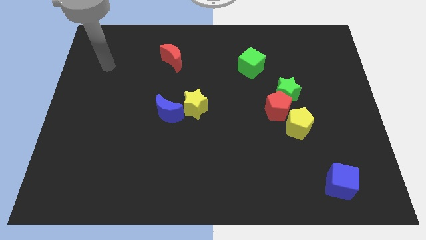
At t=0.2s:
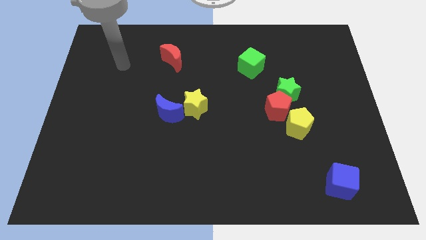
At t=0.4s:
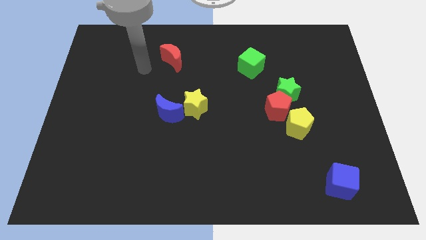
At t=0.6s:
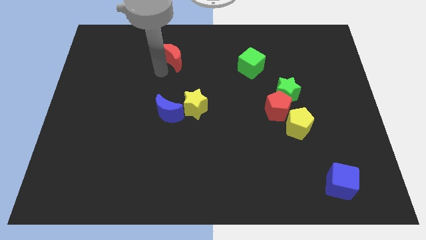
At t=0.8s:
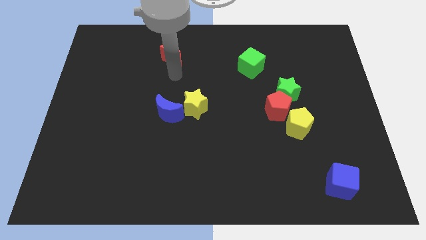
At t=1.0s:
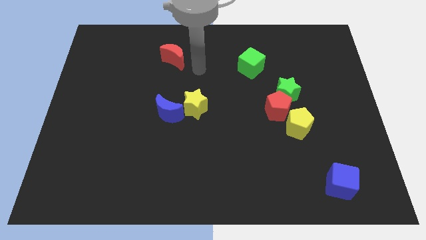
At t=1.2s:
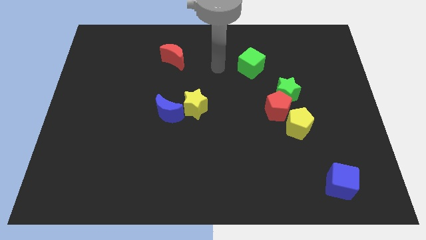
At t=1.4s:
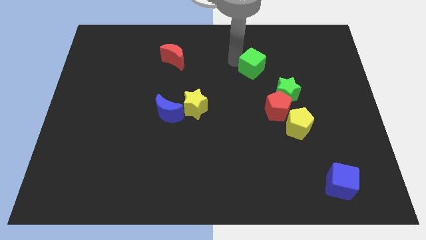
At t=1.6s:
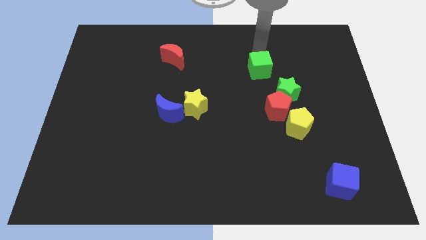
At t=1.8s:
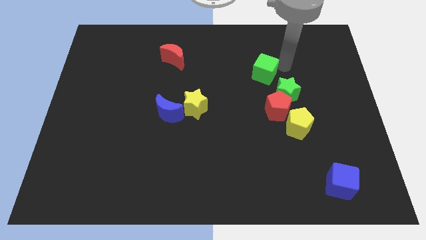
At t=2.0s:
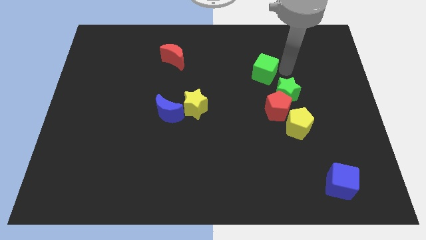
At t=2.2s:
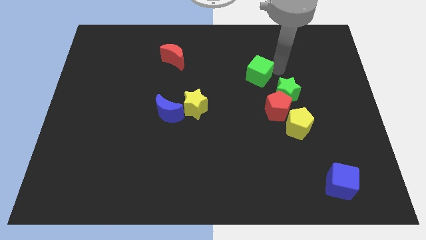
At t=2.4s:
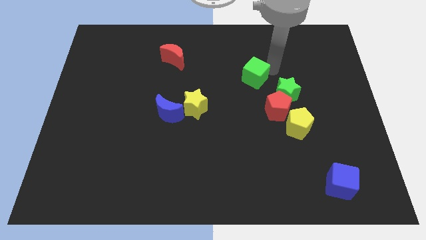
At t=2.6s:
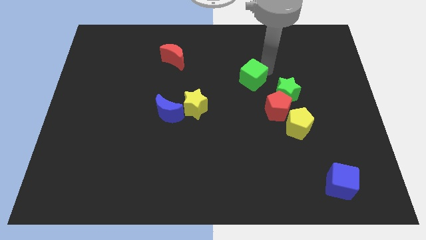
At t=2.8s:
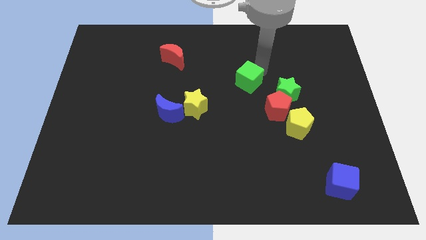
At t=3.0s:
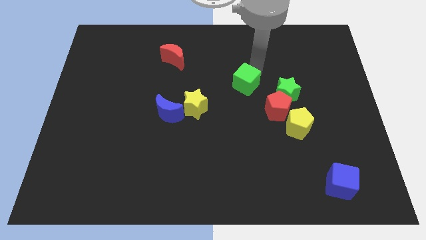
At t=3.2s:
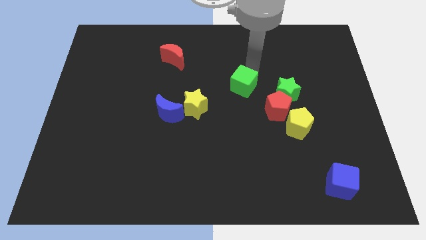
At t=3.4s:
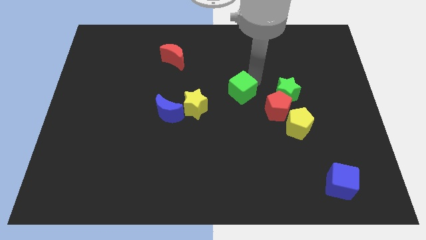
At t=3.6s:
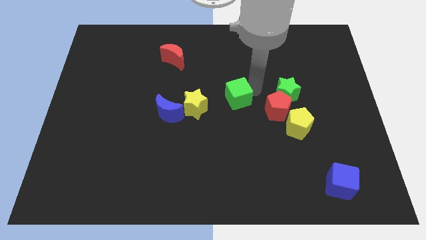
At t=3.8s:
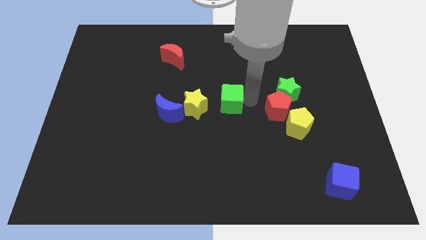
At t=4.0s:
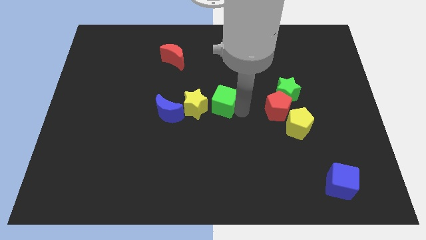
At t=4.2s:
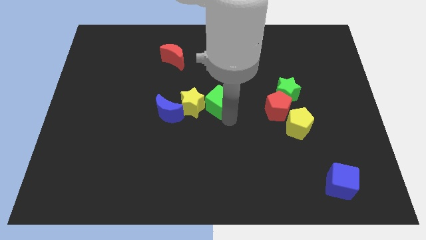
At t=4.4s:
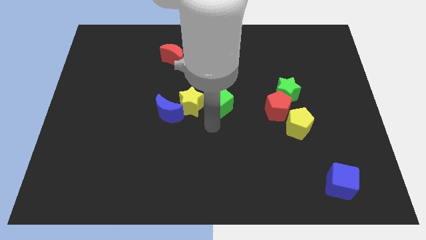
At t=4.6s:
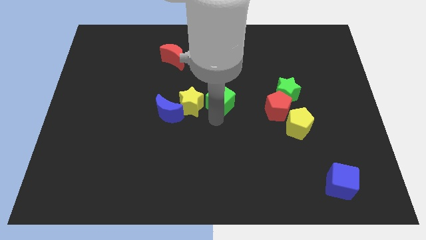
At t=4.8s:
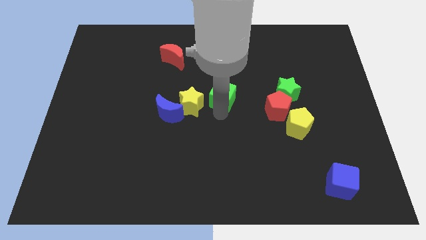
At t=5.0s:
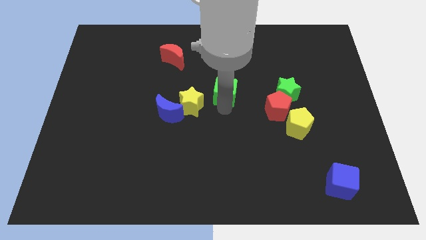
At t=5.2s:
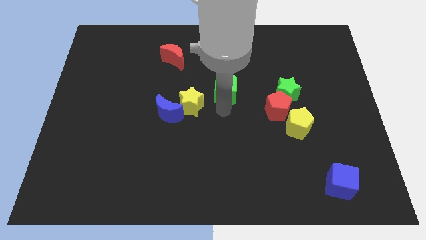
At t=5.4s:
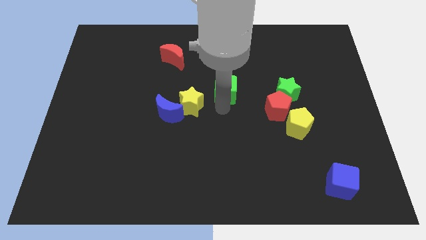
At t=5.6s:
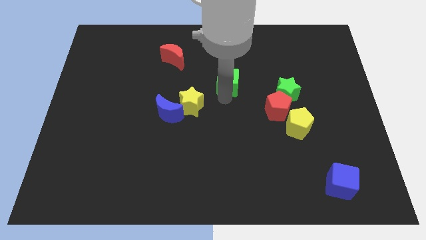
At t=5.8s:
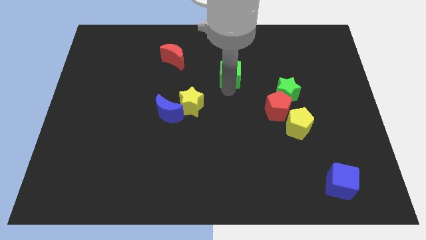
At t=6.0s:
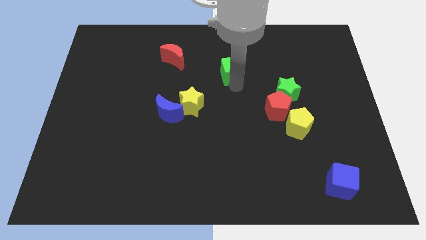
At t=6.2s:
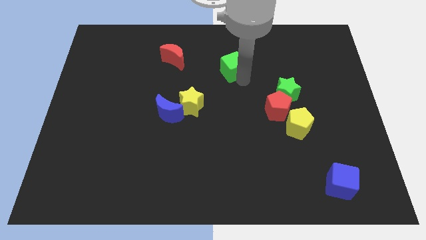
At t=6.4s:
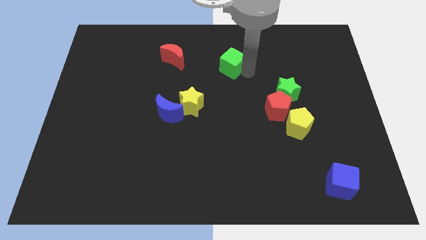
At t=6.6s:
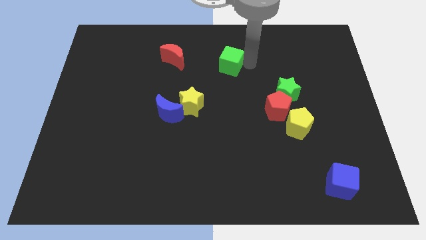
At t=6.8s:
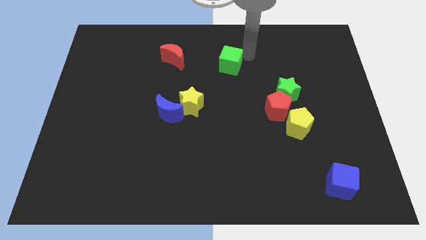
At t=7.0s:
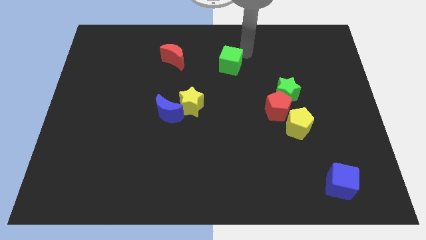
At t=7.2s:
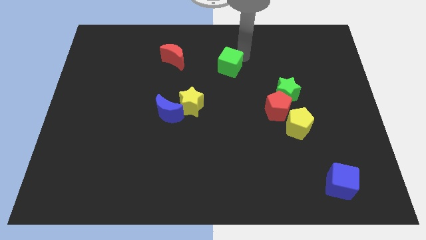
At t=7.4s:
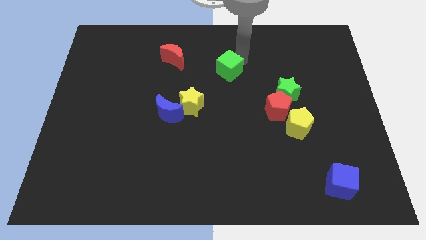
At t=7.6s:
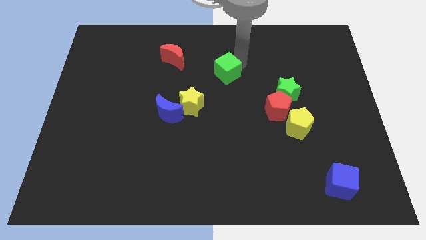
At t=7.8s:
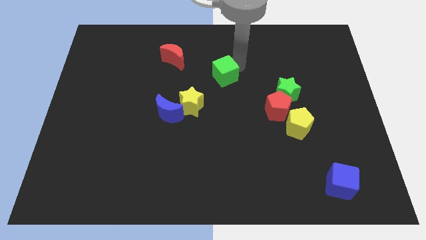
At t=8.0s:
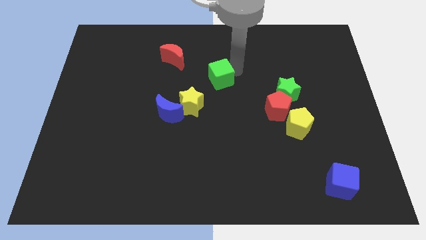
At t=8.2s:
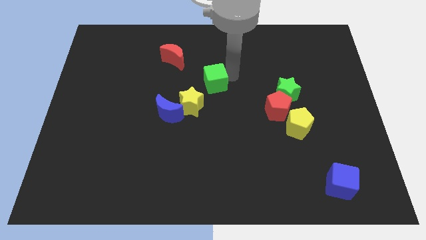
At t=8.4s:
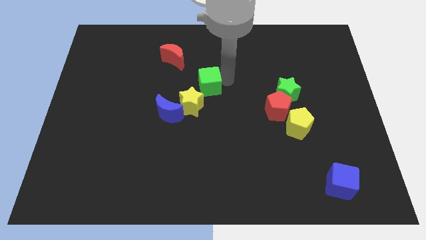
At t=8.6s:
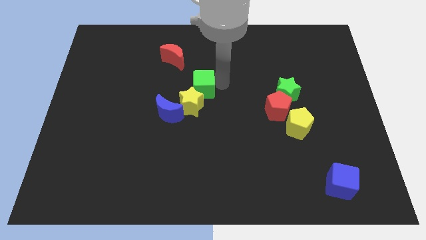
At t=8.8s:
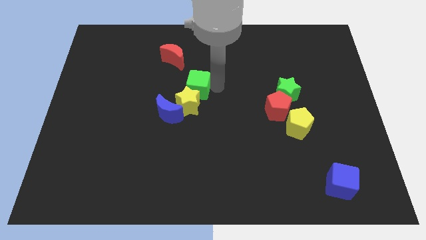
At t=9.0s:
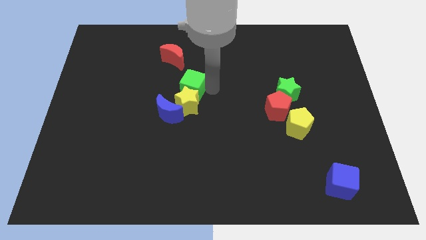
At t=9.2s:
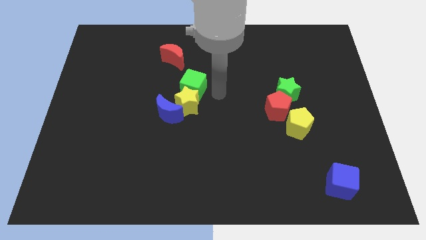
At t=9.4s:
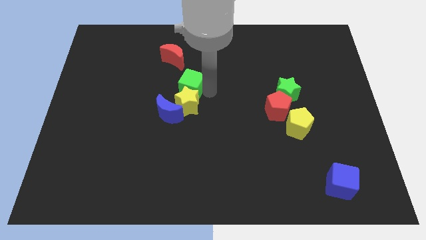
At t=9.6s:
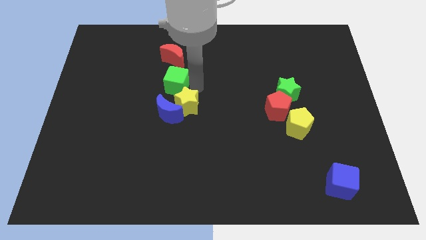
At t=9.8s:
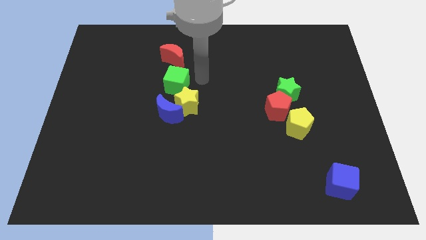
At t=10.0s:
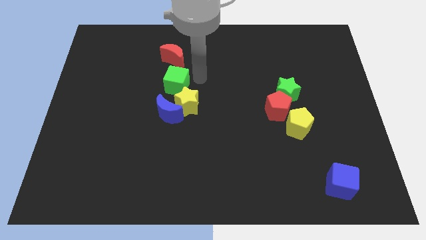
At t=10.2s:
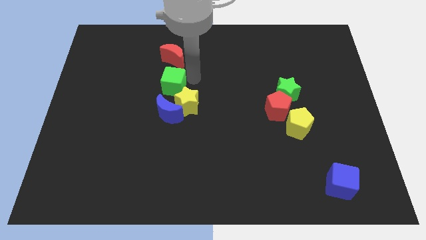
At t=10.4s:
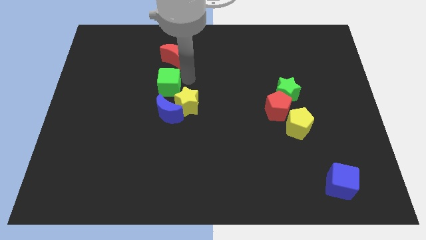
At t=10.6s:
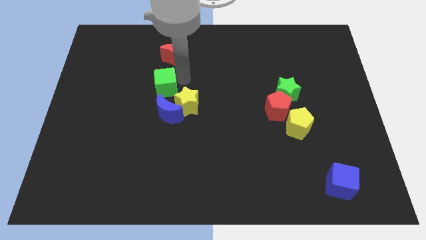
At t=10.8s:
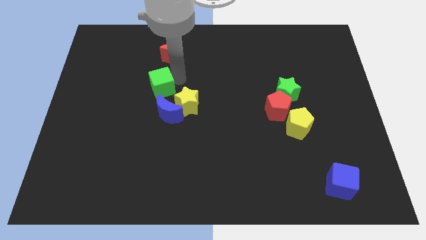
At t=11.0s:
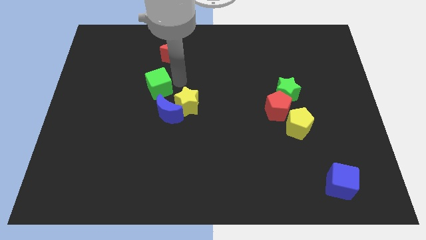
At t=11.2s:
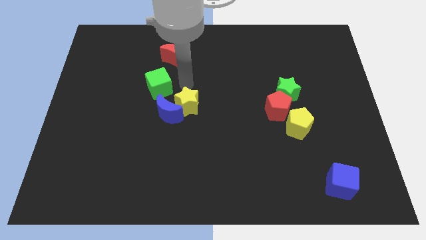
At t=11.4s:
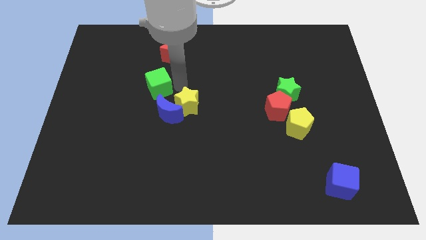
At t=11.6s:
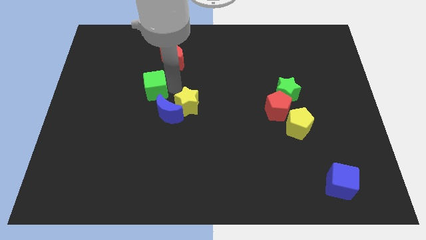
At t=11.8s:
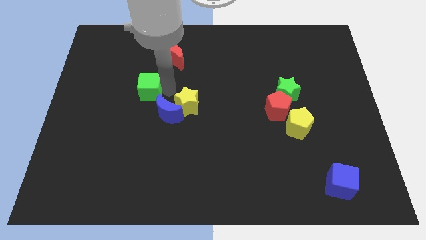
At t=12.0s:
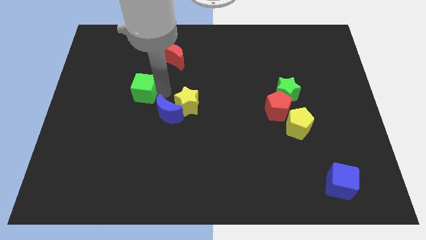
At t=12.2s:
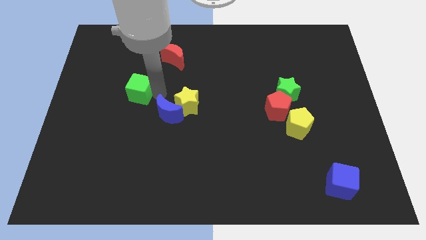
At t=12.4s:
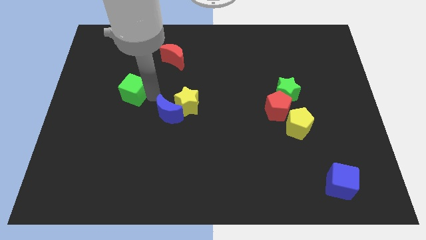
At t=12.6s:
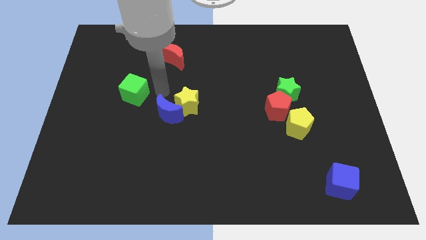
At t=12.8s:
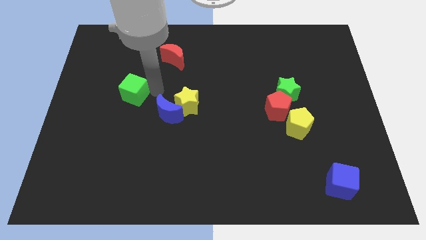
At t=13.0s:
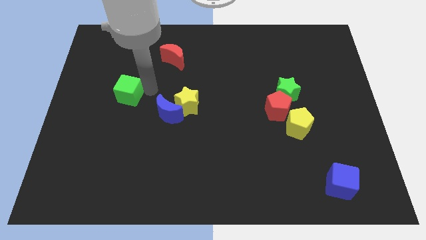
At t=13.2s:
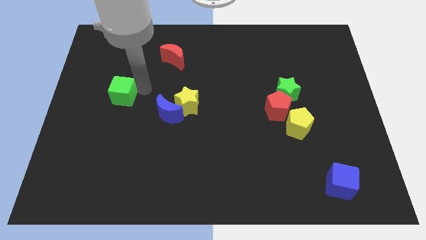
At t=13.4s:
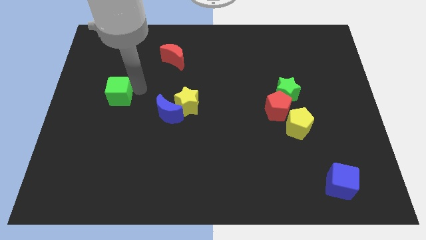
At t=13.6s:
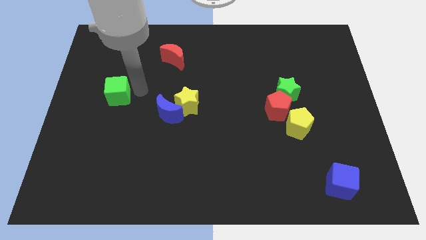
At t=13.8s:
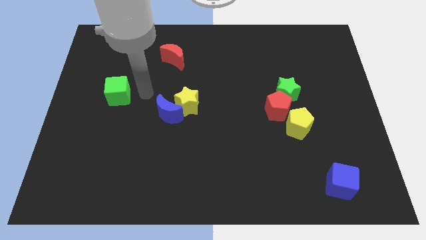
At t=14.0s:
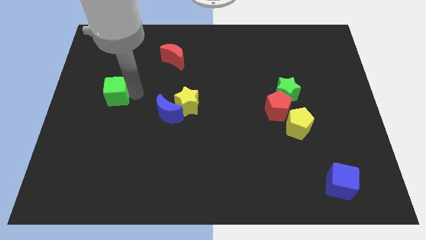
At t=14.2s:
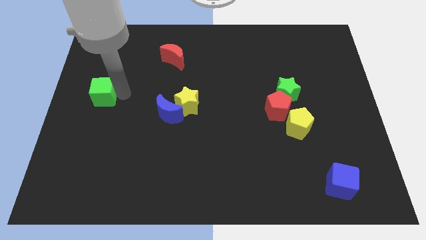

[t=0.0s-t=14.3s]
push the green cube to the left side of the board

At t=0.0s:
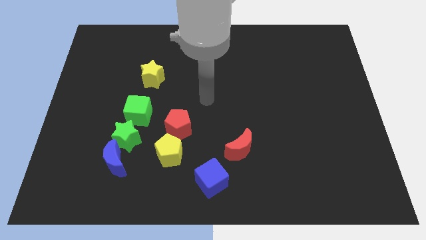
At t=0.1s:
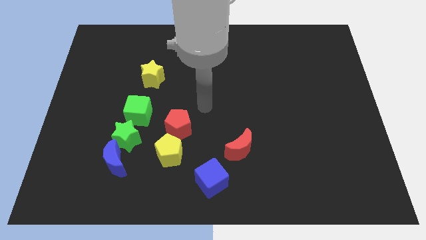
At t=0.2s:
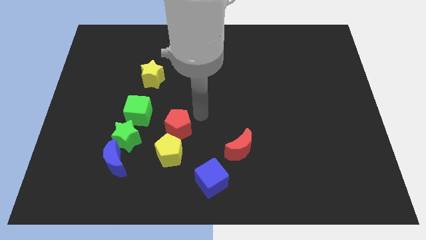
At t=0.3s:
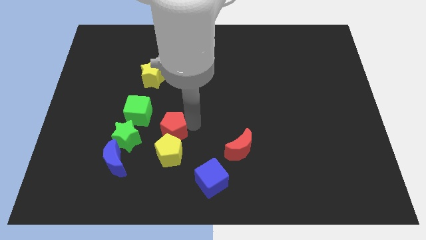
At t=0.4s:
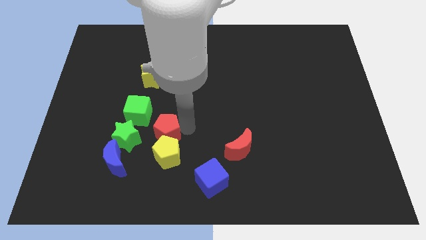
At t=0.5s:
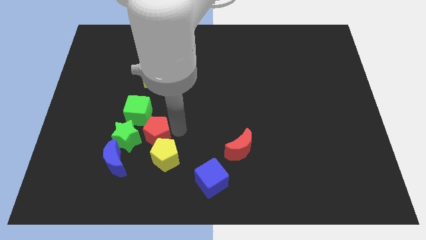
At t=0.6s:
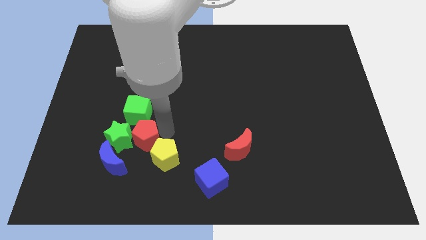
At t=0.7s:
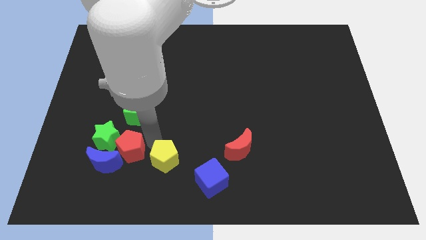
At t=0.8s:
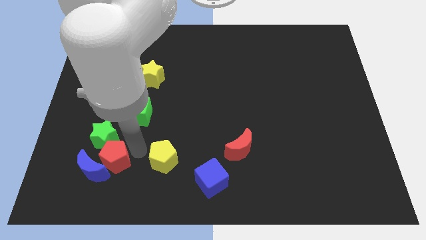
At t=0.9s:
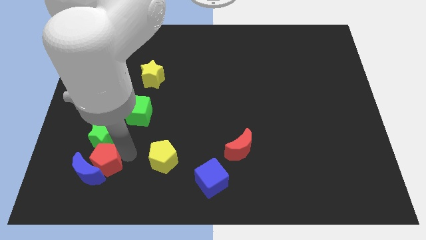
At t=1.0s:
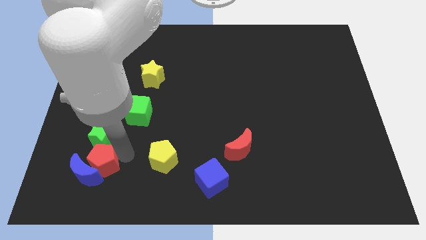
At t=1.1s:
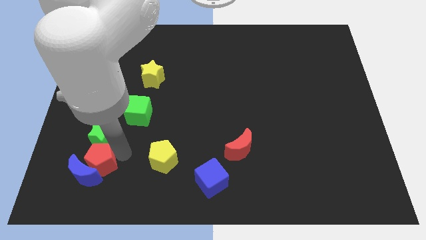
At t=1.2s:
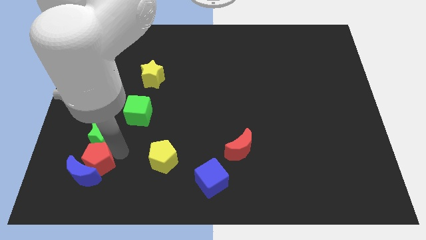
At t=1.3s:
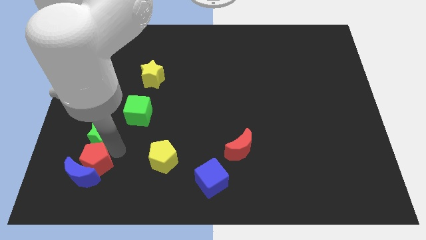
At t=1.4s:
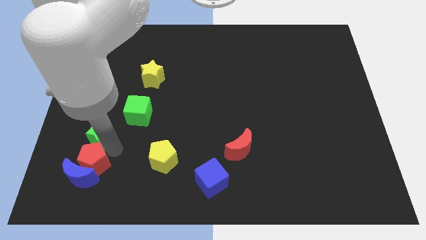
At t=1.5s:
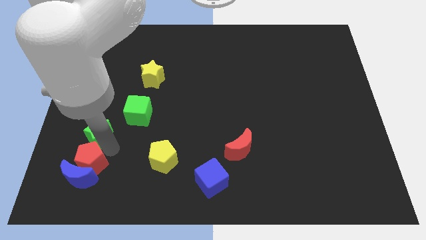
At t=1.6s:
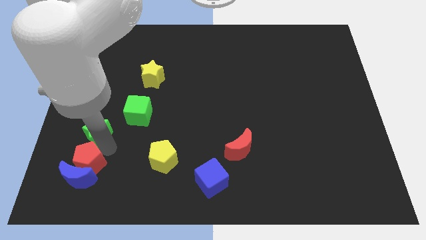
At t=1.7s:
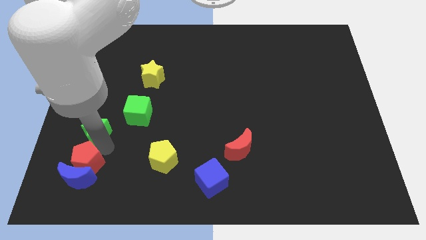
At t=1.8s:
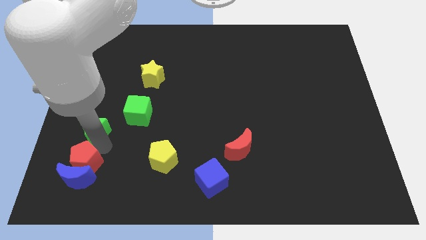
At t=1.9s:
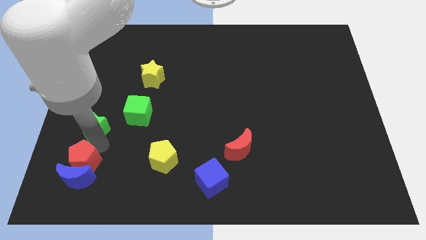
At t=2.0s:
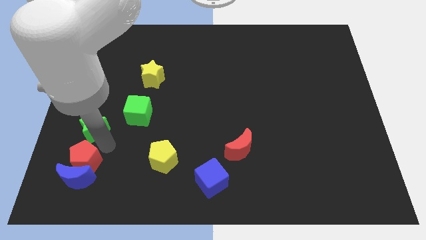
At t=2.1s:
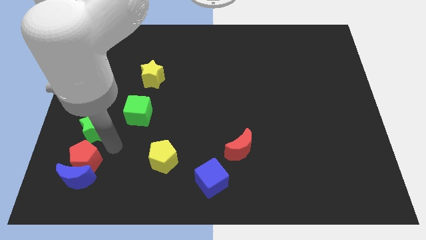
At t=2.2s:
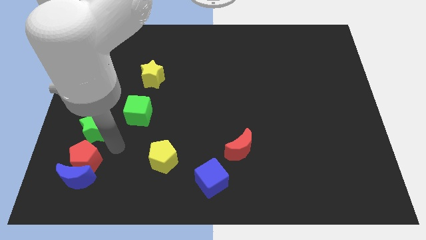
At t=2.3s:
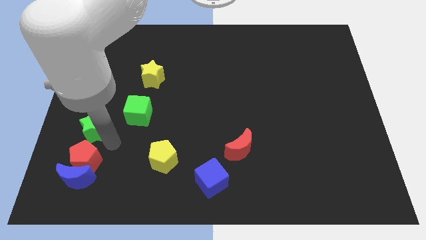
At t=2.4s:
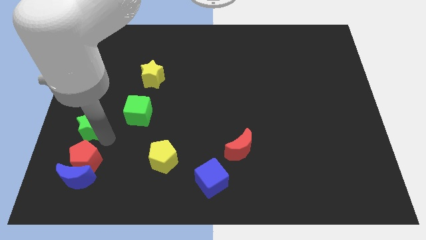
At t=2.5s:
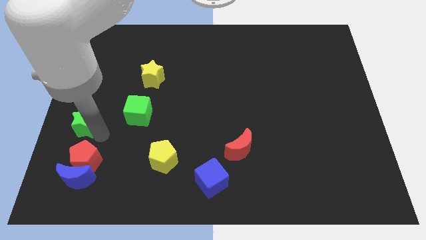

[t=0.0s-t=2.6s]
slide the green star to the left side of the board
